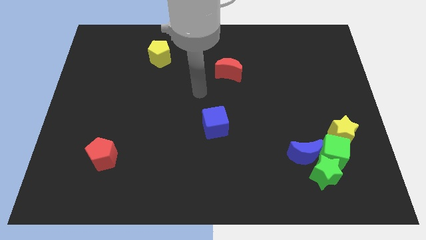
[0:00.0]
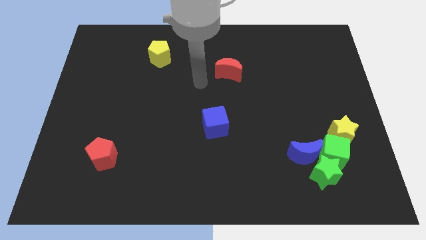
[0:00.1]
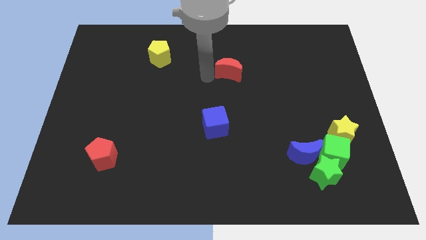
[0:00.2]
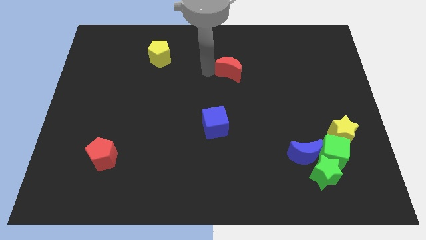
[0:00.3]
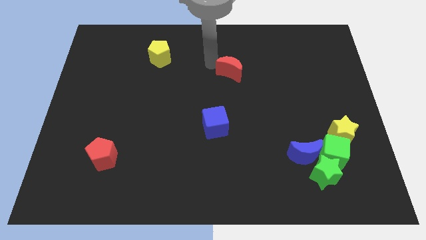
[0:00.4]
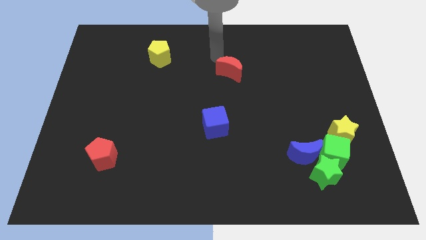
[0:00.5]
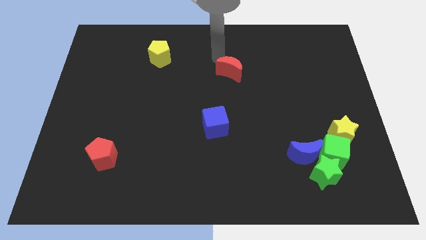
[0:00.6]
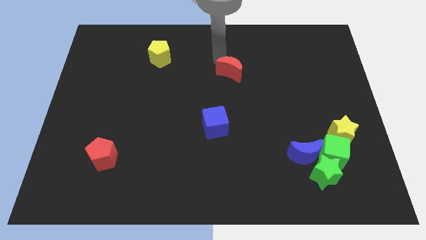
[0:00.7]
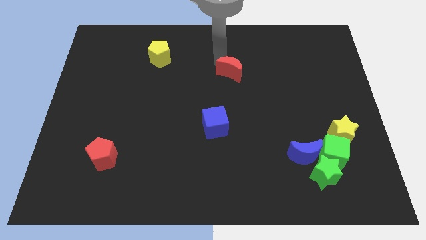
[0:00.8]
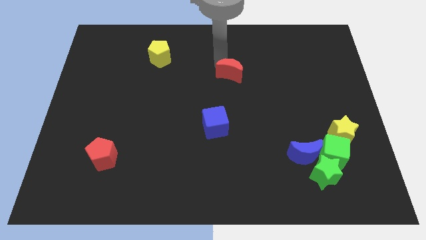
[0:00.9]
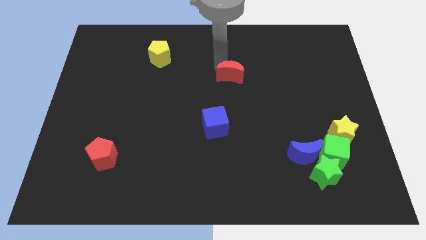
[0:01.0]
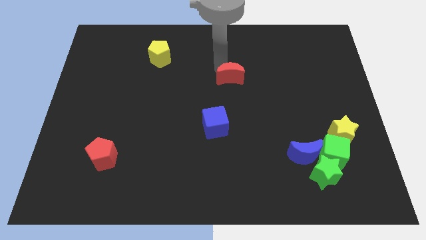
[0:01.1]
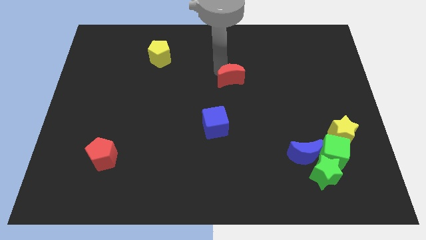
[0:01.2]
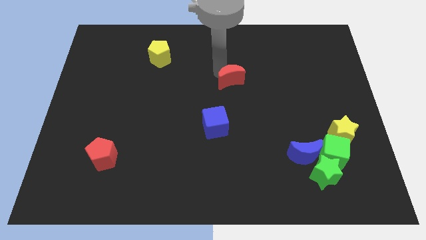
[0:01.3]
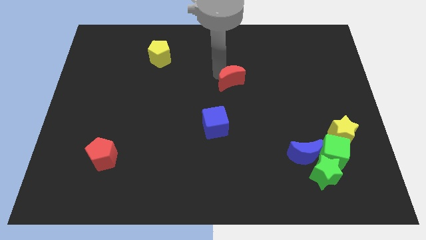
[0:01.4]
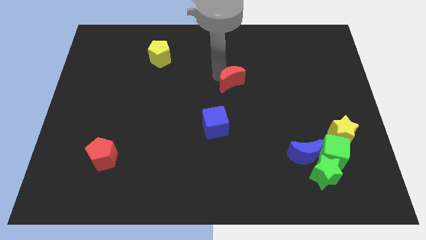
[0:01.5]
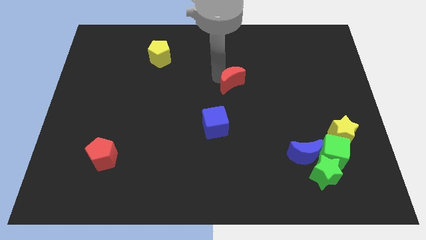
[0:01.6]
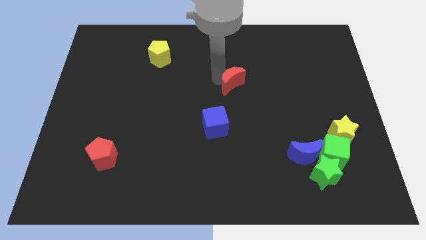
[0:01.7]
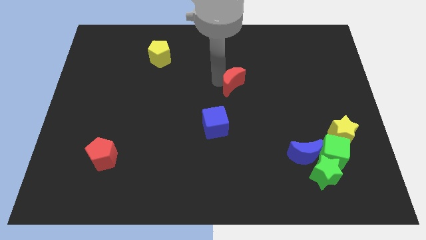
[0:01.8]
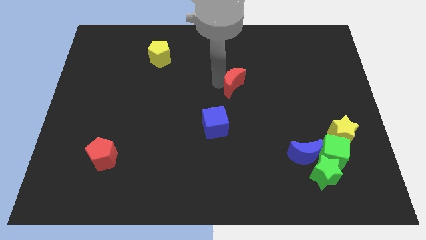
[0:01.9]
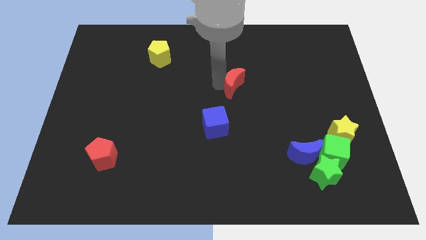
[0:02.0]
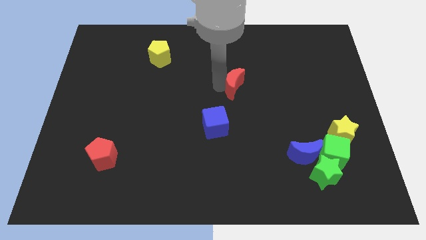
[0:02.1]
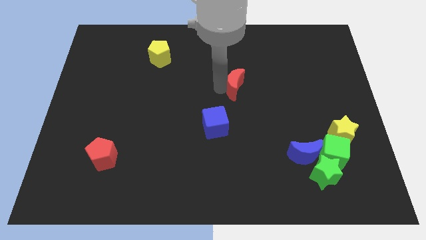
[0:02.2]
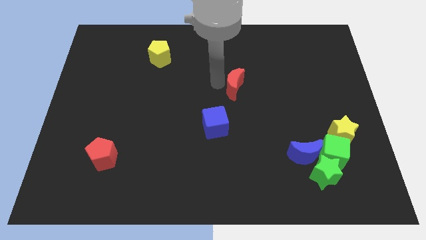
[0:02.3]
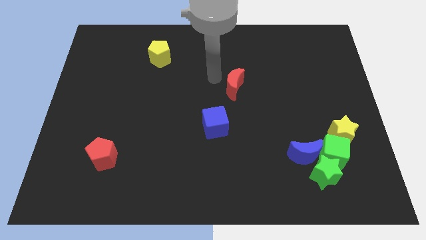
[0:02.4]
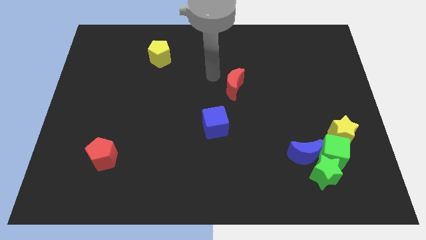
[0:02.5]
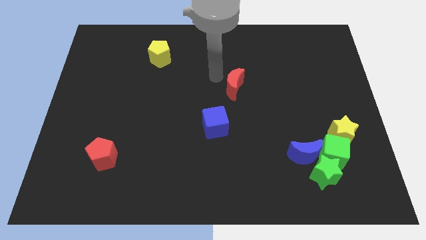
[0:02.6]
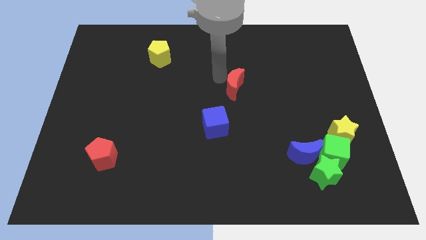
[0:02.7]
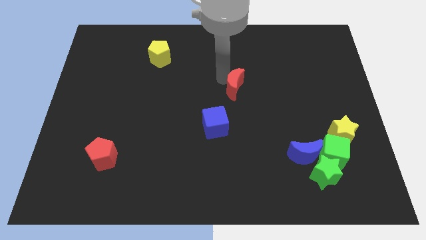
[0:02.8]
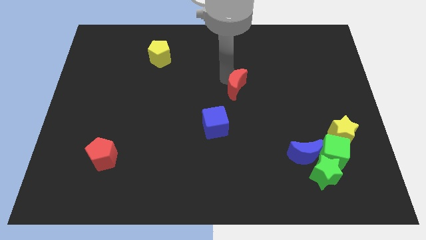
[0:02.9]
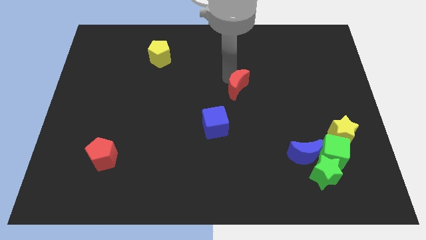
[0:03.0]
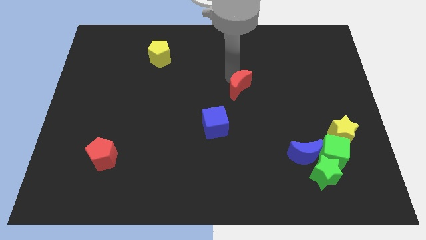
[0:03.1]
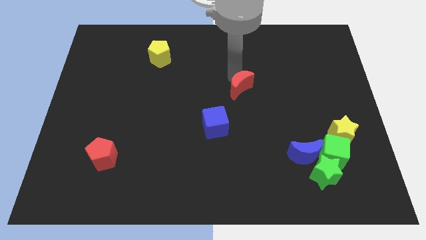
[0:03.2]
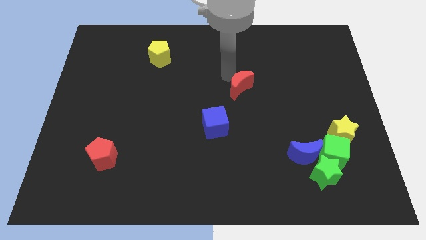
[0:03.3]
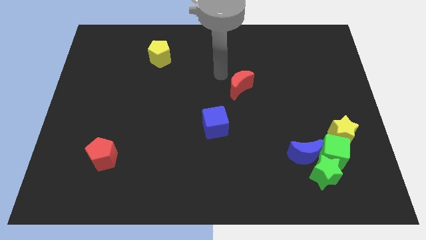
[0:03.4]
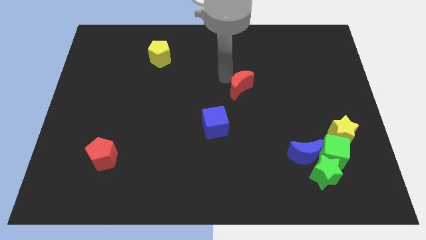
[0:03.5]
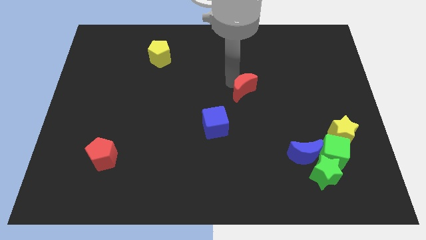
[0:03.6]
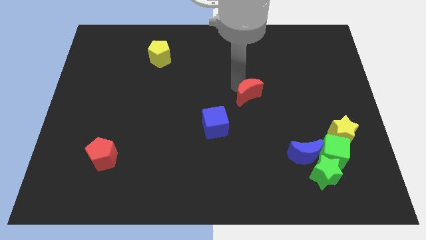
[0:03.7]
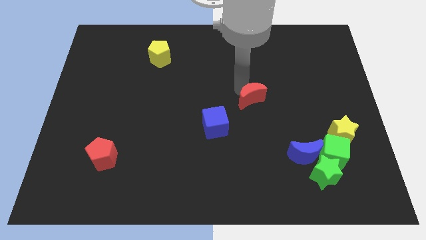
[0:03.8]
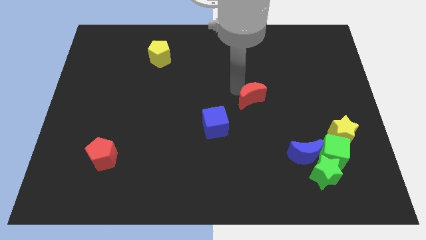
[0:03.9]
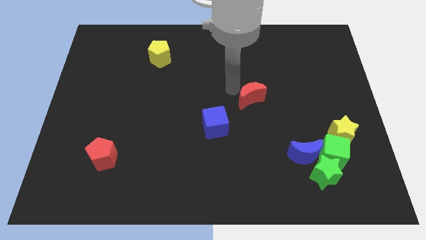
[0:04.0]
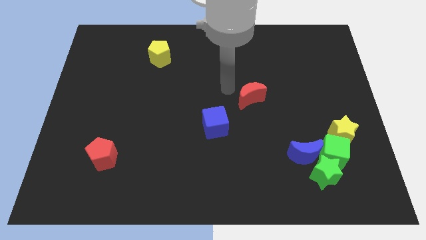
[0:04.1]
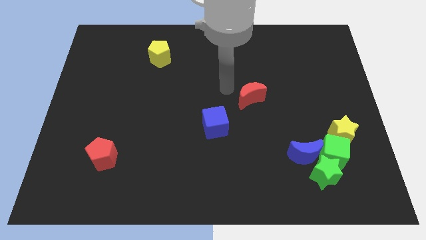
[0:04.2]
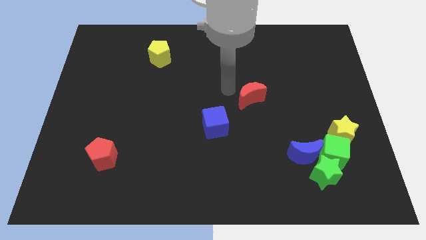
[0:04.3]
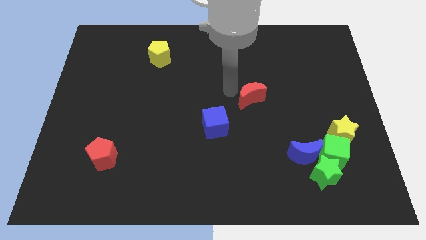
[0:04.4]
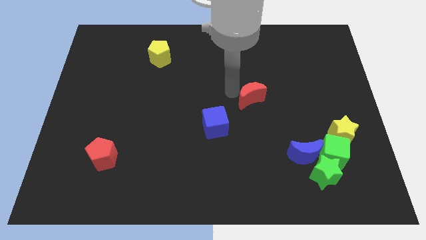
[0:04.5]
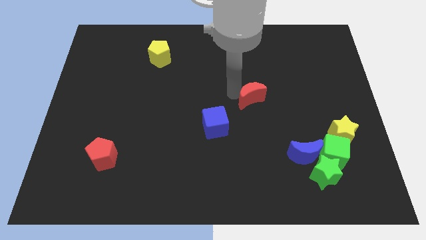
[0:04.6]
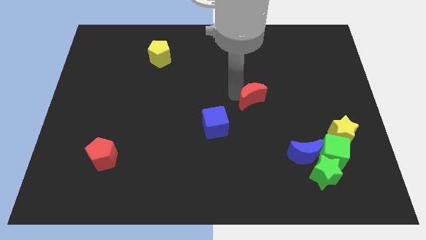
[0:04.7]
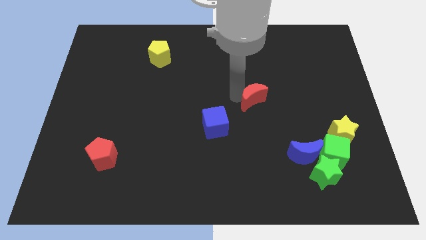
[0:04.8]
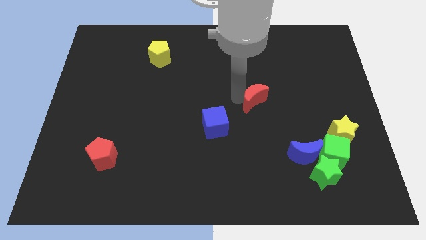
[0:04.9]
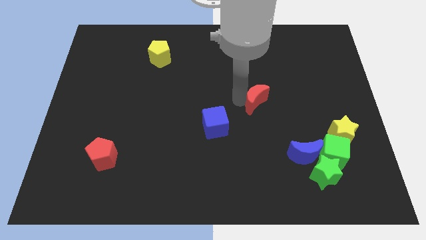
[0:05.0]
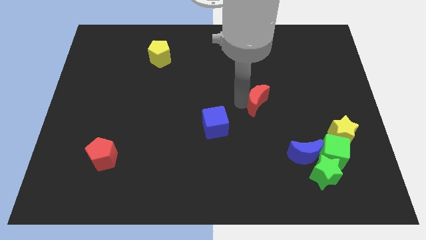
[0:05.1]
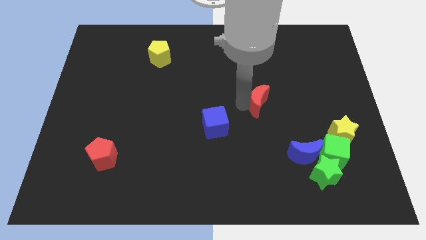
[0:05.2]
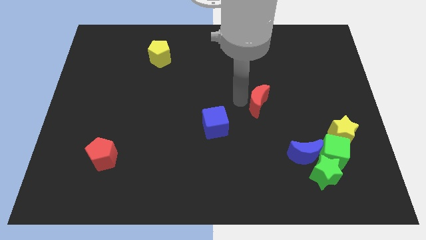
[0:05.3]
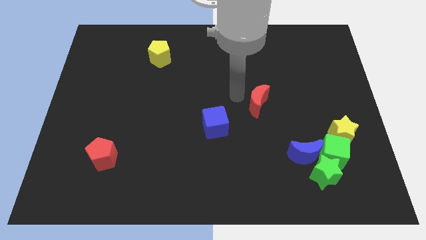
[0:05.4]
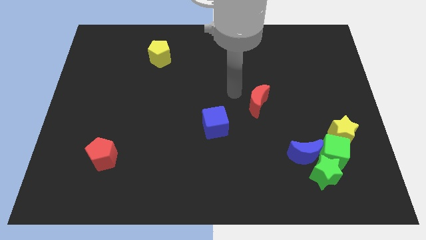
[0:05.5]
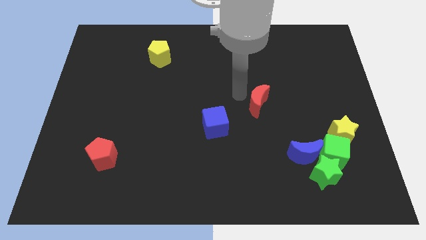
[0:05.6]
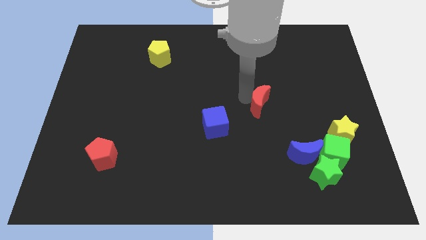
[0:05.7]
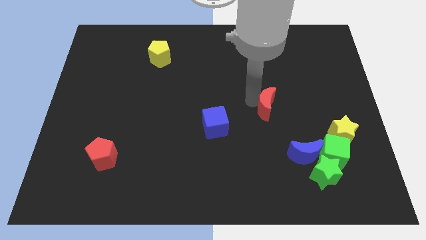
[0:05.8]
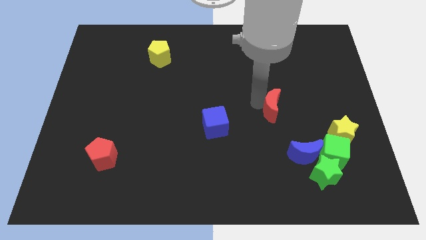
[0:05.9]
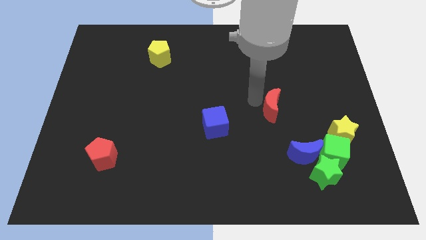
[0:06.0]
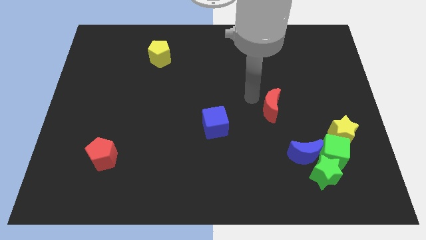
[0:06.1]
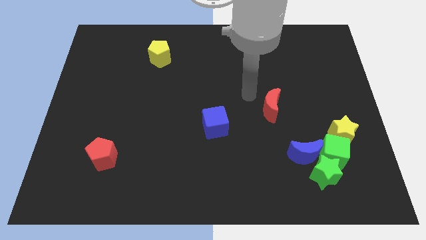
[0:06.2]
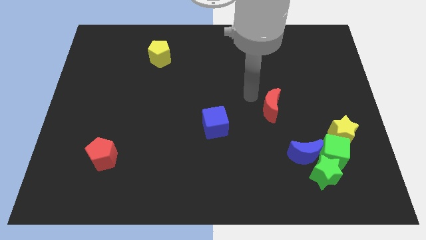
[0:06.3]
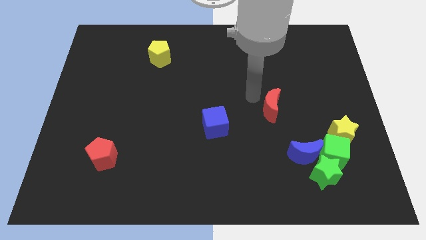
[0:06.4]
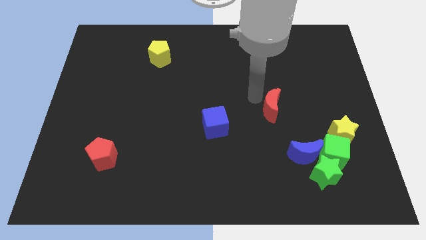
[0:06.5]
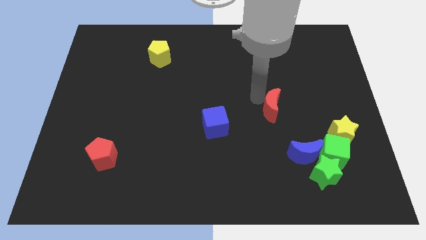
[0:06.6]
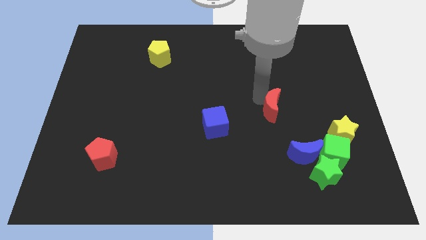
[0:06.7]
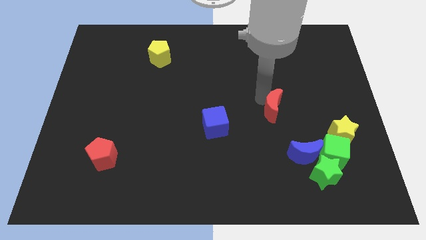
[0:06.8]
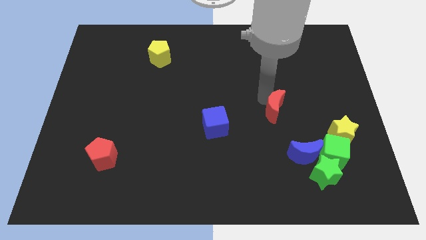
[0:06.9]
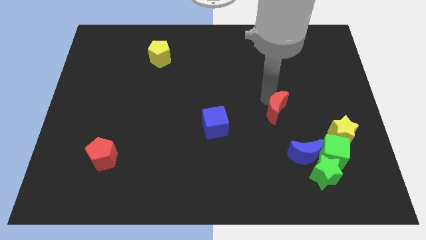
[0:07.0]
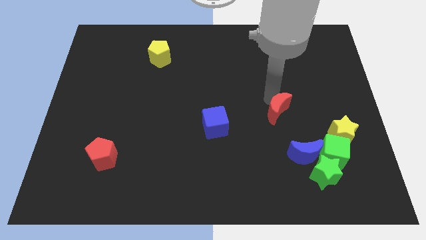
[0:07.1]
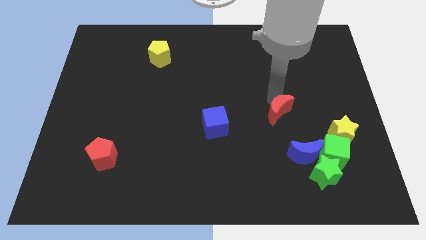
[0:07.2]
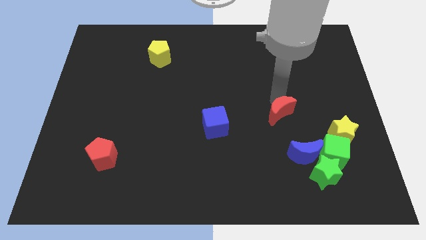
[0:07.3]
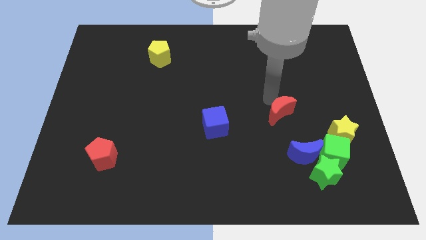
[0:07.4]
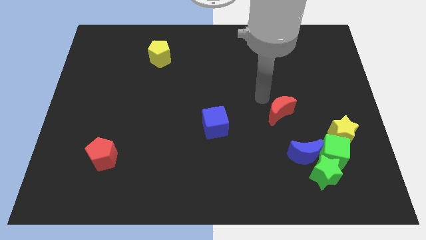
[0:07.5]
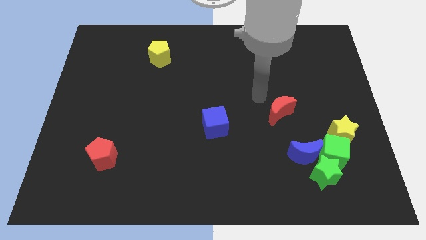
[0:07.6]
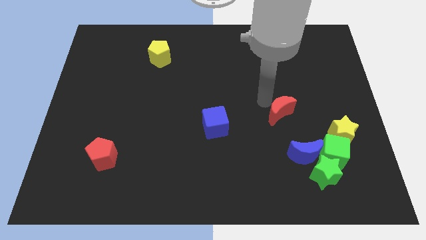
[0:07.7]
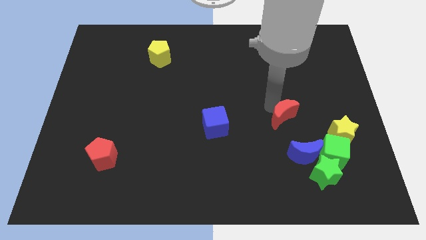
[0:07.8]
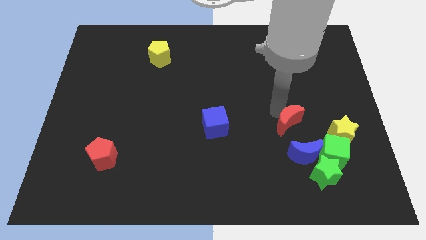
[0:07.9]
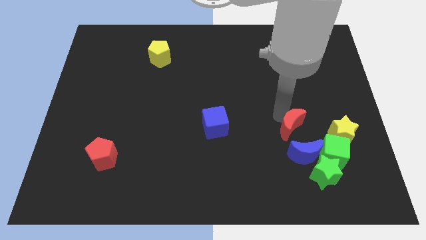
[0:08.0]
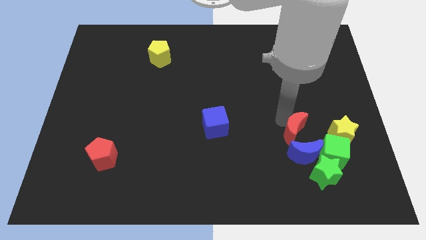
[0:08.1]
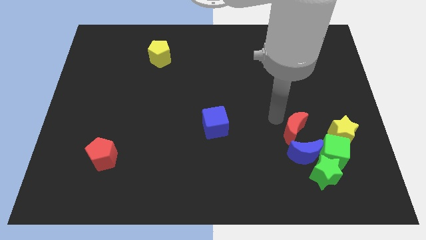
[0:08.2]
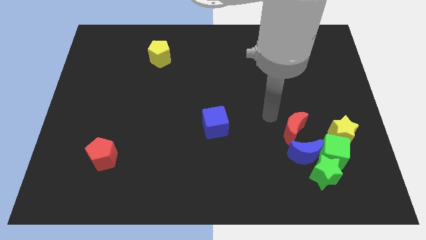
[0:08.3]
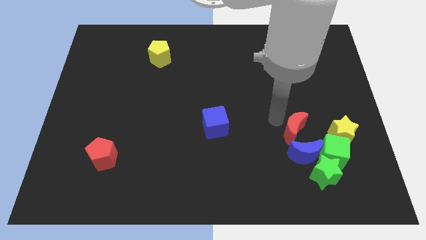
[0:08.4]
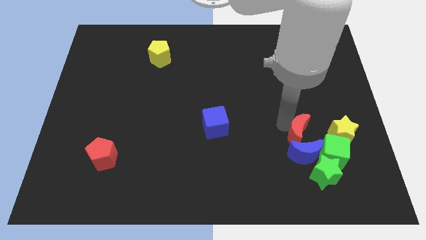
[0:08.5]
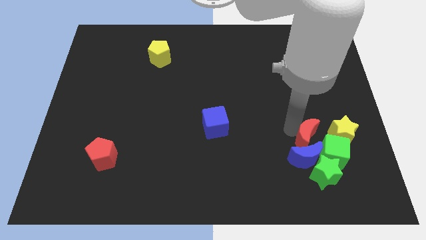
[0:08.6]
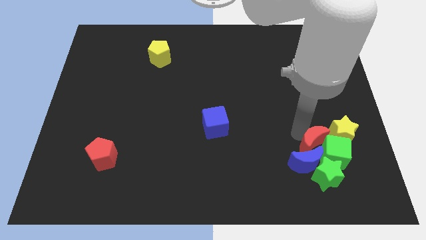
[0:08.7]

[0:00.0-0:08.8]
push the red moon next to the green cube
